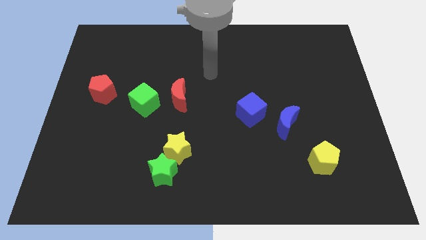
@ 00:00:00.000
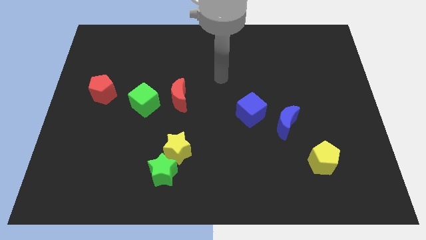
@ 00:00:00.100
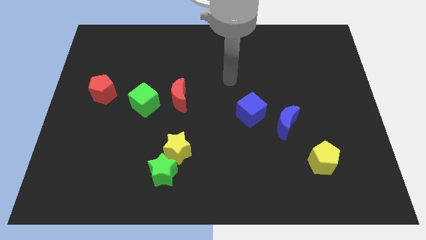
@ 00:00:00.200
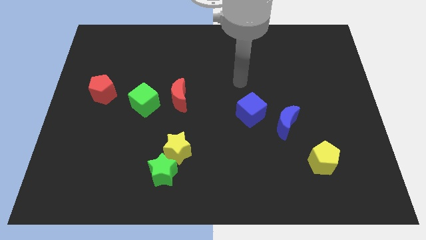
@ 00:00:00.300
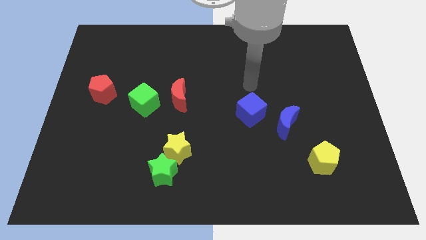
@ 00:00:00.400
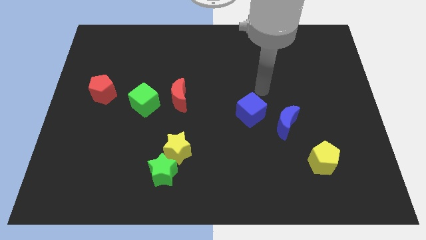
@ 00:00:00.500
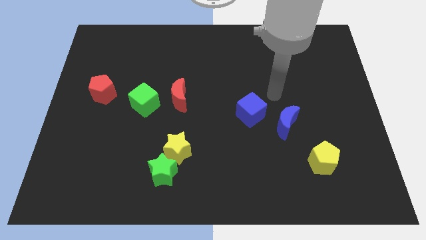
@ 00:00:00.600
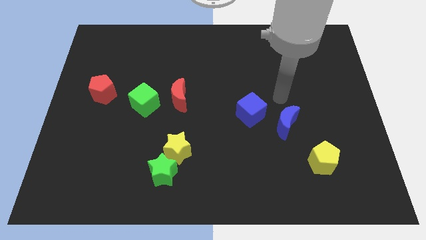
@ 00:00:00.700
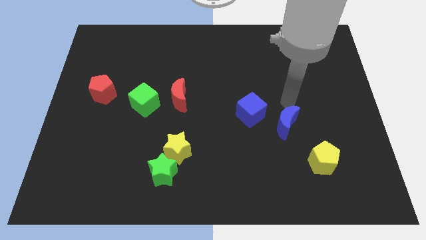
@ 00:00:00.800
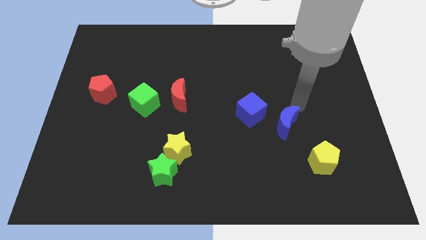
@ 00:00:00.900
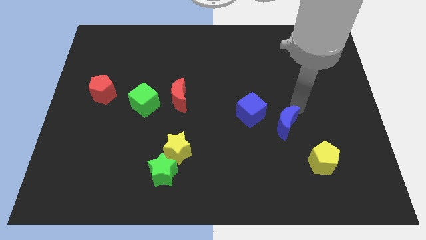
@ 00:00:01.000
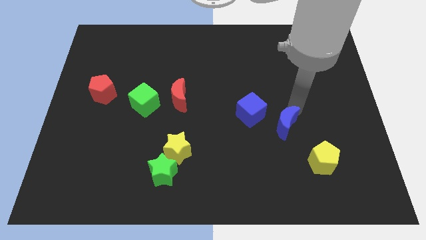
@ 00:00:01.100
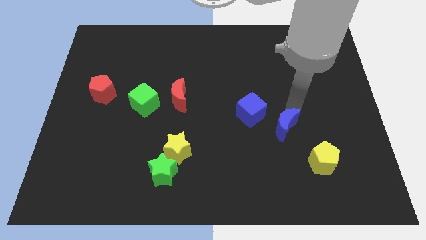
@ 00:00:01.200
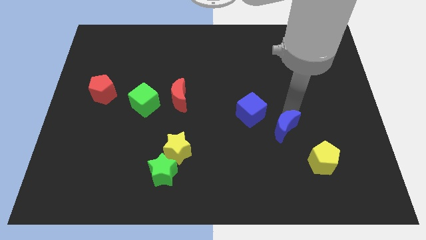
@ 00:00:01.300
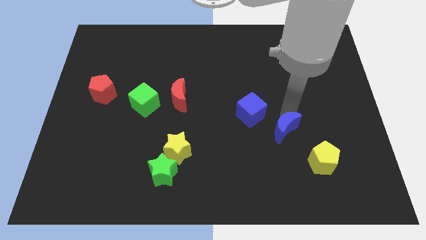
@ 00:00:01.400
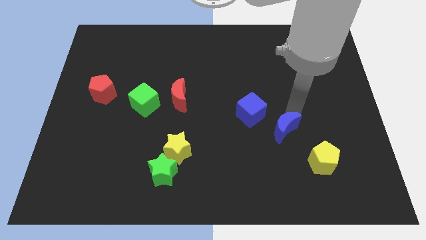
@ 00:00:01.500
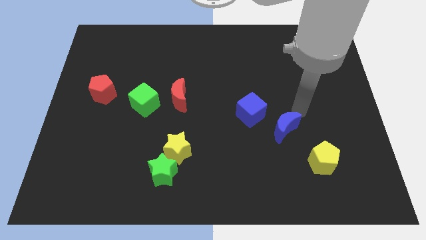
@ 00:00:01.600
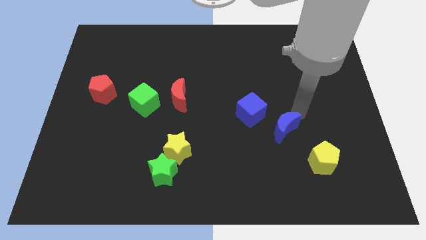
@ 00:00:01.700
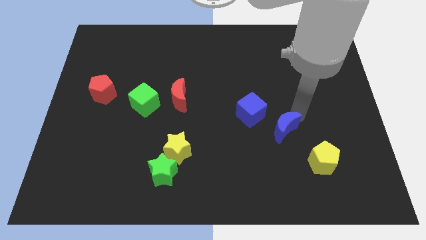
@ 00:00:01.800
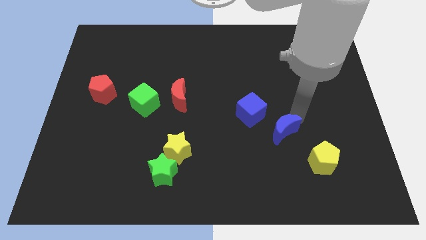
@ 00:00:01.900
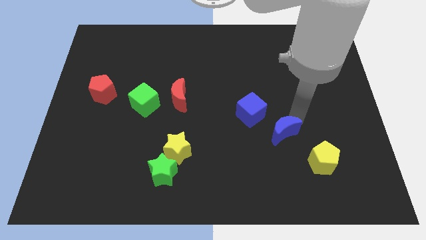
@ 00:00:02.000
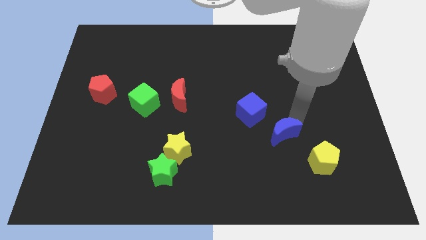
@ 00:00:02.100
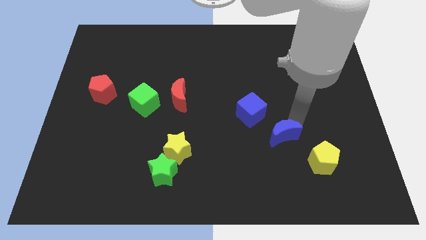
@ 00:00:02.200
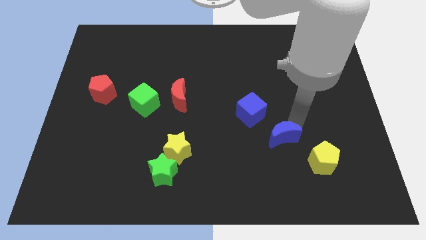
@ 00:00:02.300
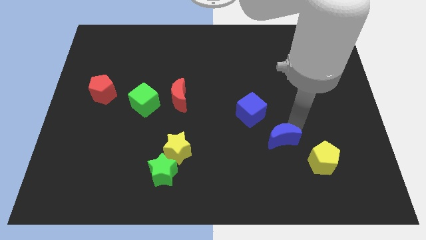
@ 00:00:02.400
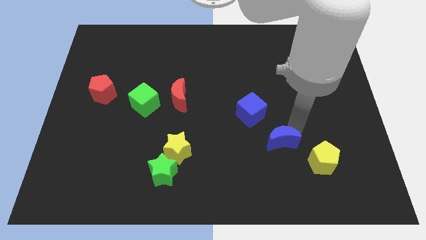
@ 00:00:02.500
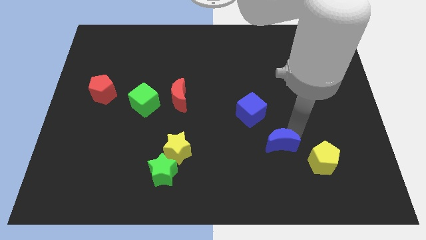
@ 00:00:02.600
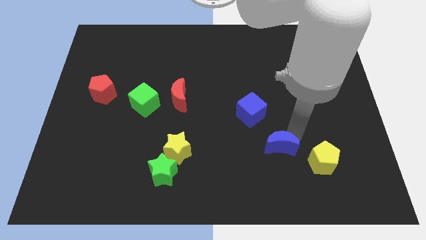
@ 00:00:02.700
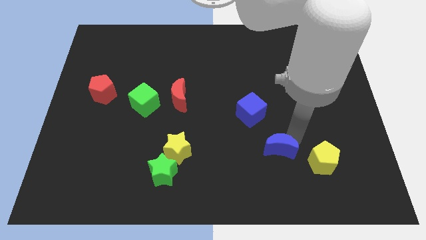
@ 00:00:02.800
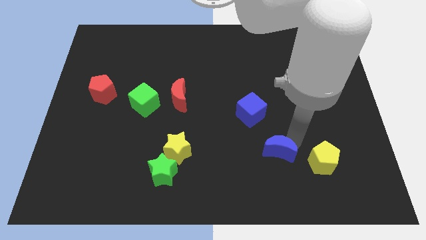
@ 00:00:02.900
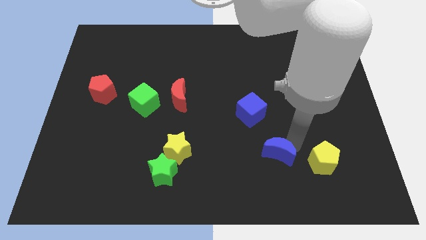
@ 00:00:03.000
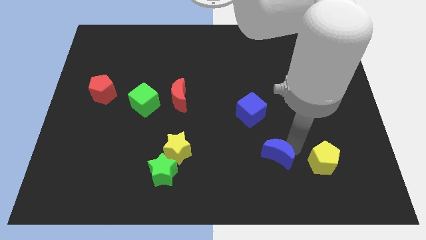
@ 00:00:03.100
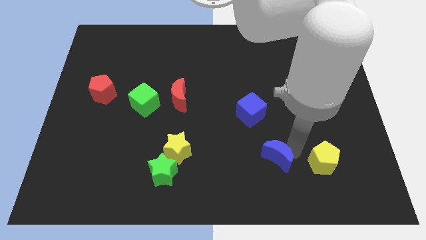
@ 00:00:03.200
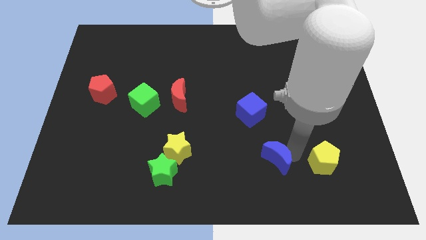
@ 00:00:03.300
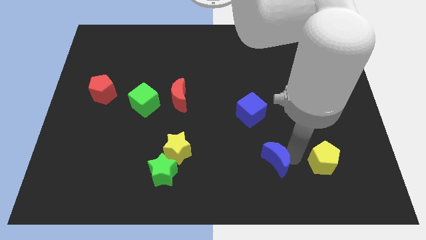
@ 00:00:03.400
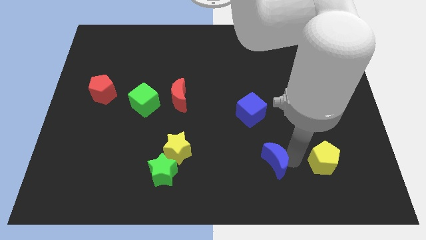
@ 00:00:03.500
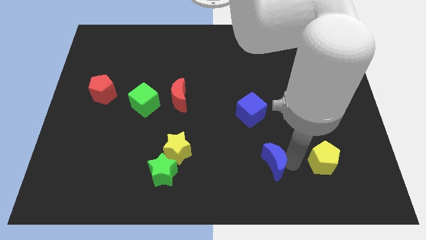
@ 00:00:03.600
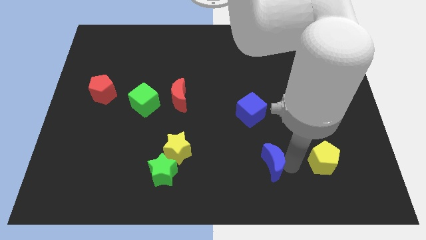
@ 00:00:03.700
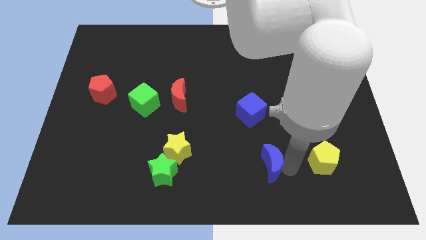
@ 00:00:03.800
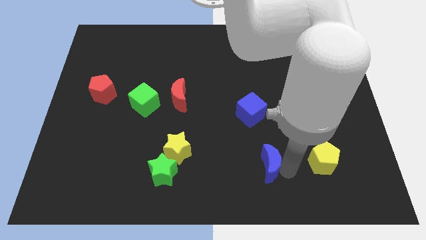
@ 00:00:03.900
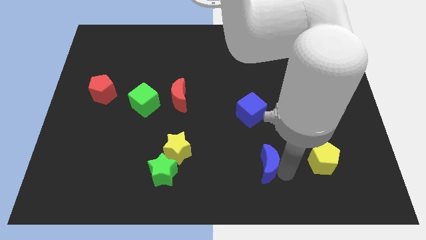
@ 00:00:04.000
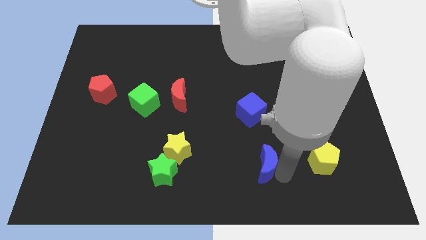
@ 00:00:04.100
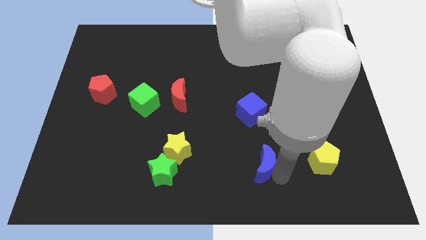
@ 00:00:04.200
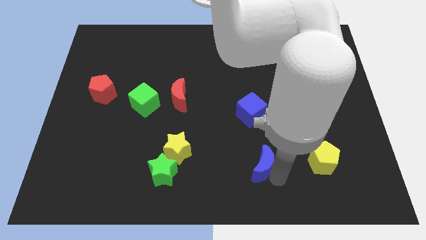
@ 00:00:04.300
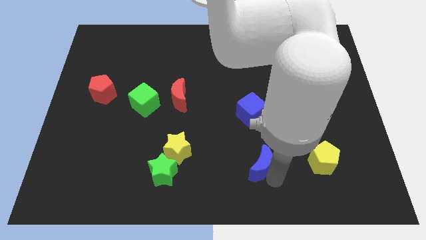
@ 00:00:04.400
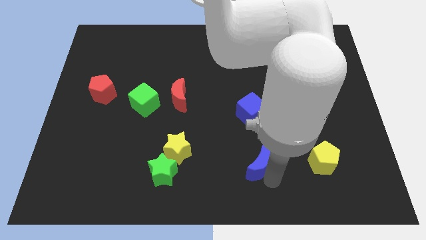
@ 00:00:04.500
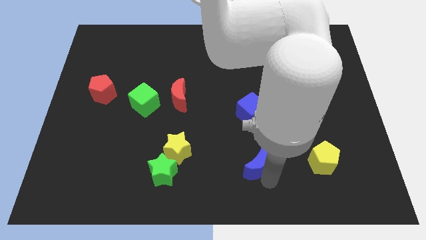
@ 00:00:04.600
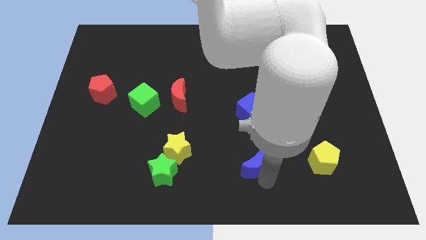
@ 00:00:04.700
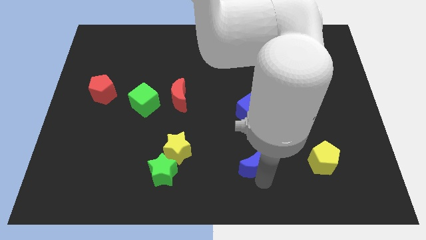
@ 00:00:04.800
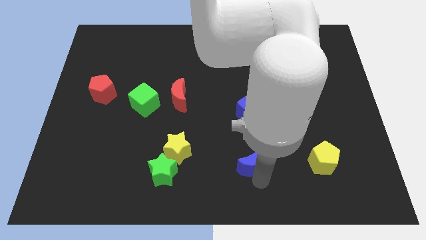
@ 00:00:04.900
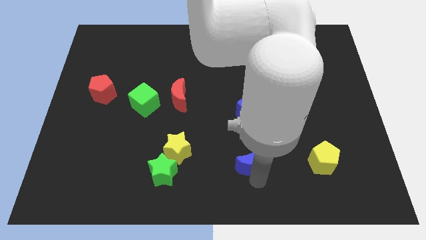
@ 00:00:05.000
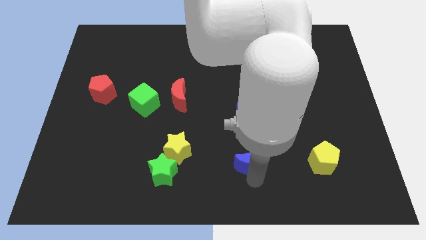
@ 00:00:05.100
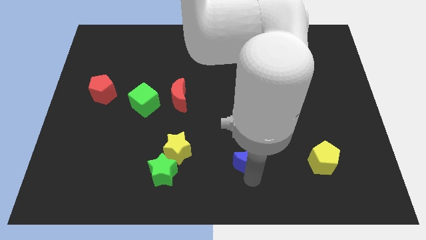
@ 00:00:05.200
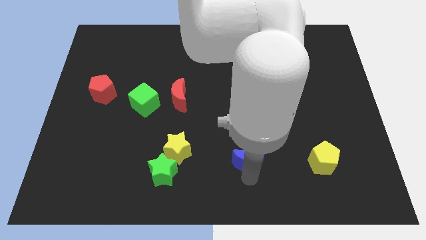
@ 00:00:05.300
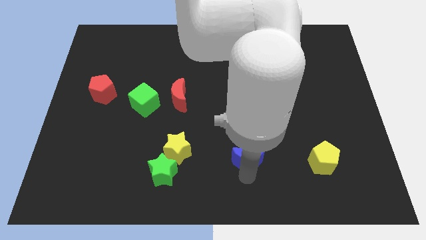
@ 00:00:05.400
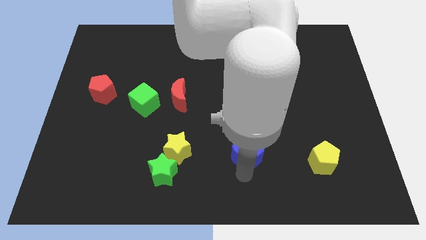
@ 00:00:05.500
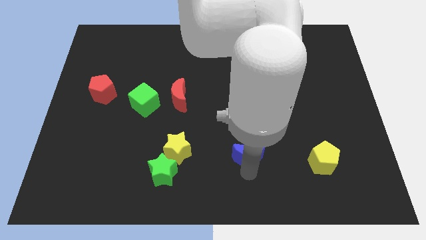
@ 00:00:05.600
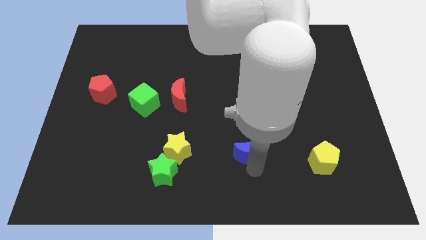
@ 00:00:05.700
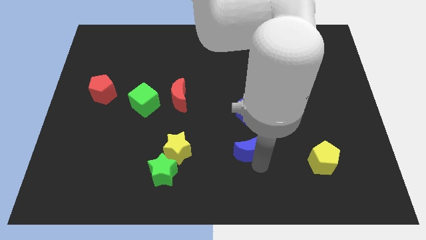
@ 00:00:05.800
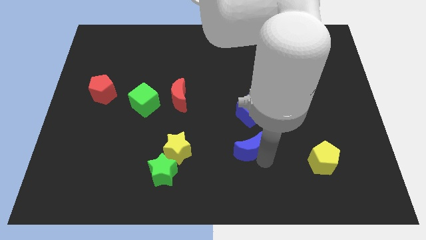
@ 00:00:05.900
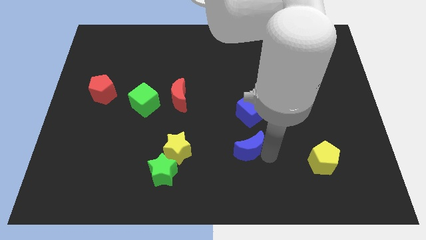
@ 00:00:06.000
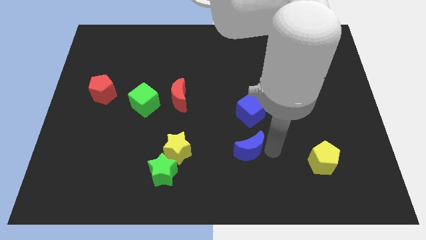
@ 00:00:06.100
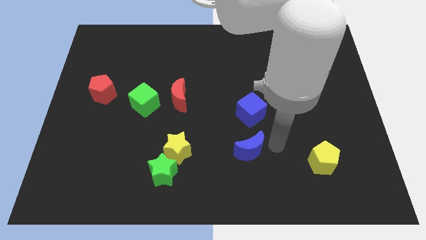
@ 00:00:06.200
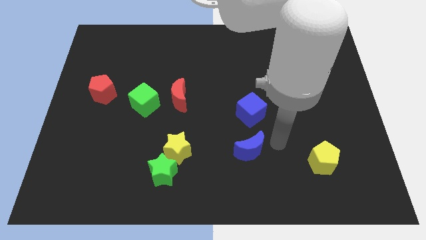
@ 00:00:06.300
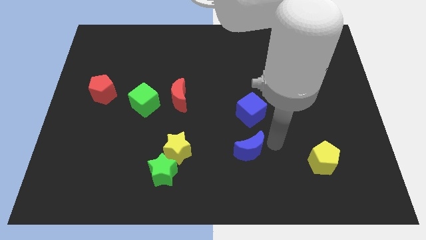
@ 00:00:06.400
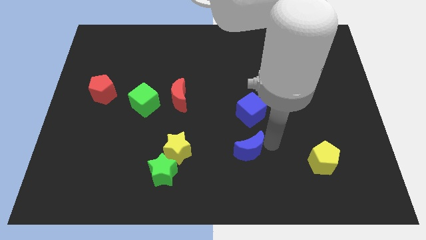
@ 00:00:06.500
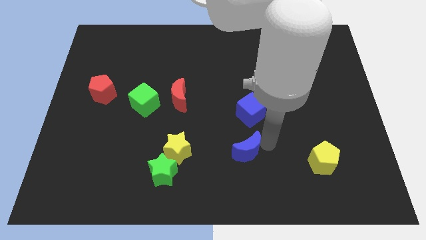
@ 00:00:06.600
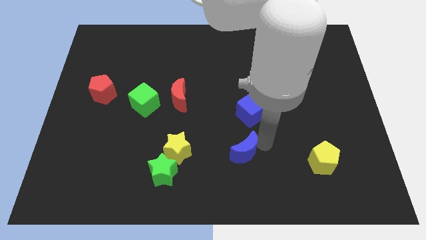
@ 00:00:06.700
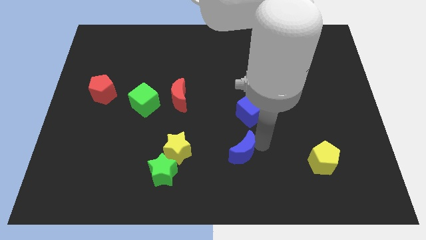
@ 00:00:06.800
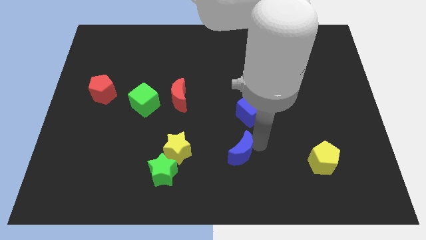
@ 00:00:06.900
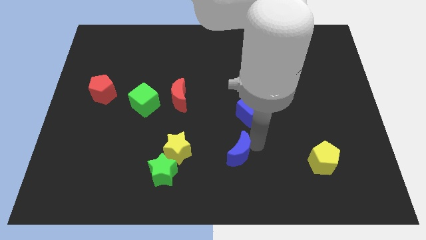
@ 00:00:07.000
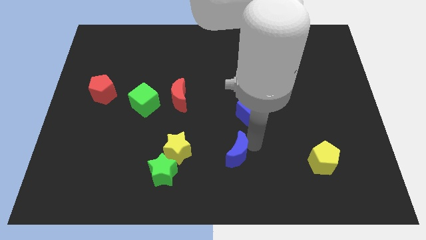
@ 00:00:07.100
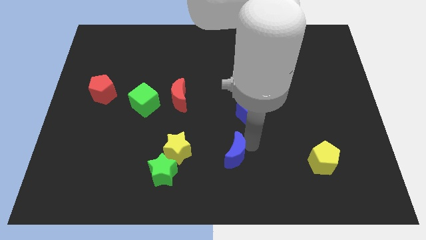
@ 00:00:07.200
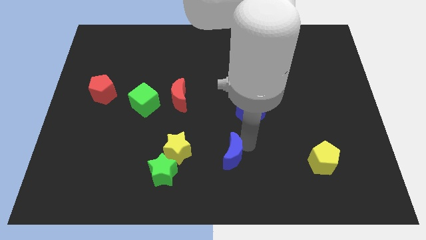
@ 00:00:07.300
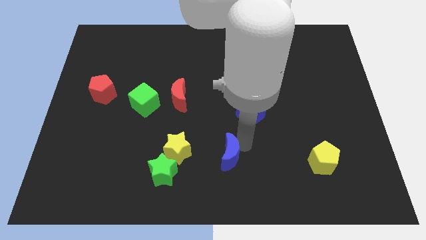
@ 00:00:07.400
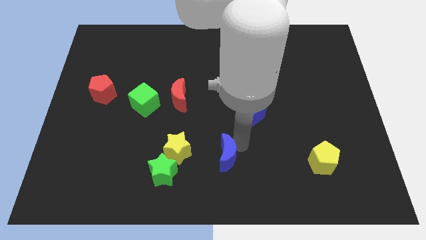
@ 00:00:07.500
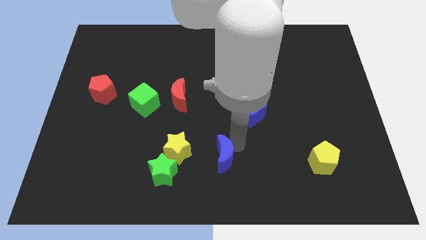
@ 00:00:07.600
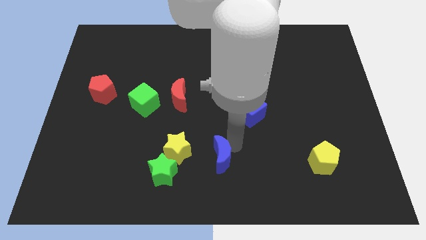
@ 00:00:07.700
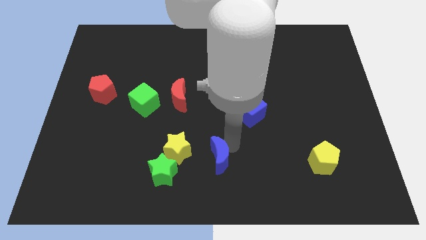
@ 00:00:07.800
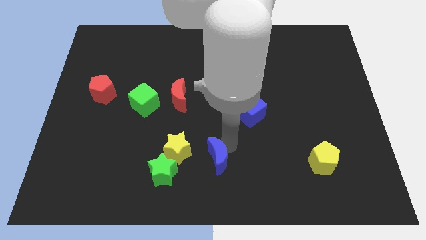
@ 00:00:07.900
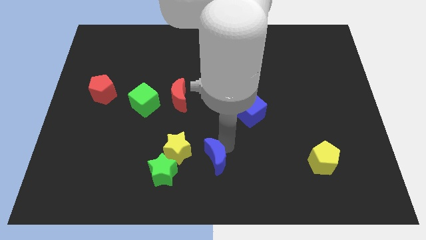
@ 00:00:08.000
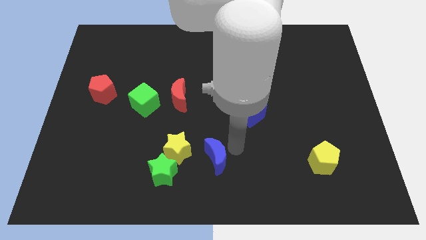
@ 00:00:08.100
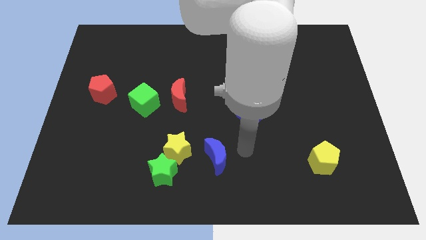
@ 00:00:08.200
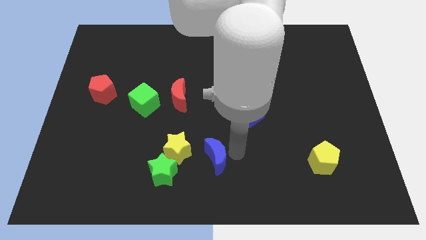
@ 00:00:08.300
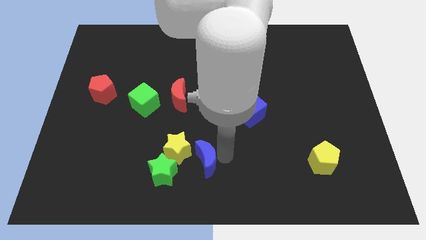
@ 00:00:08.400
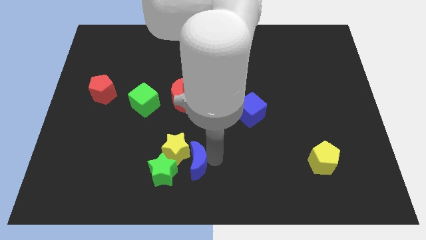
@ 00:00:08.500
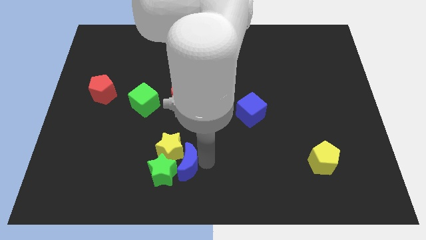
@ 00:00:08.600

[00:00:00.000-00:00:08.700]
put the blue moon to the green star
